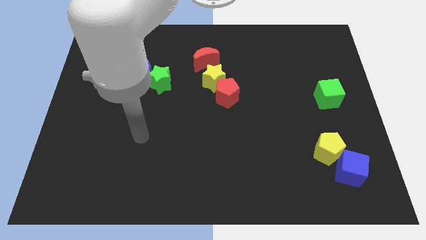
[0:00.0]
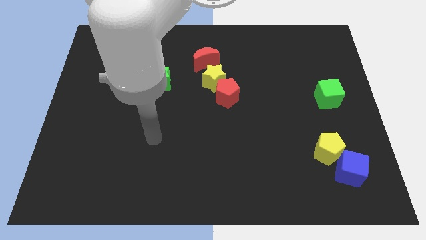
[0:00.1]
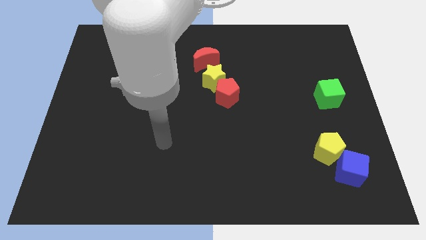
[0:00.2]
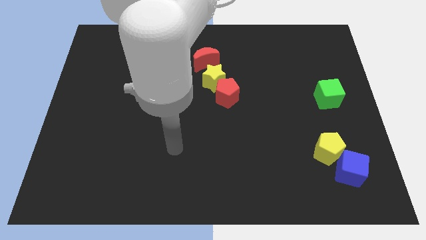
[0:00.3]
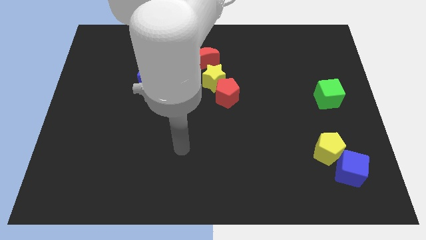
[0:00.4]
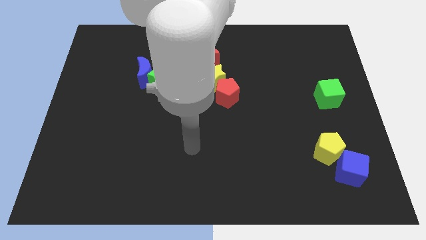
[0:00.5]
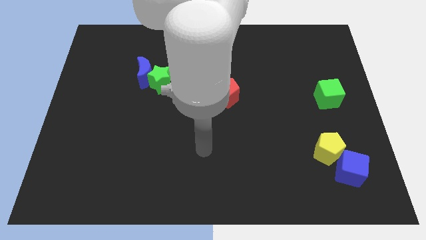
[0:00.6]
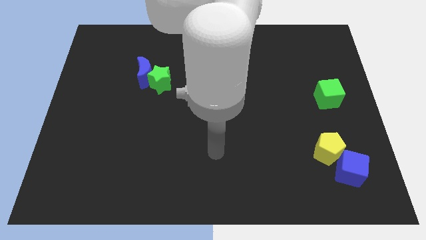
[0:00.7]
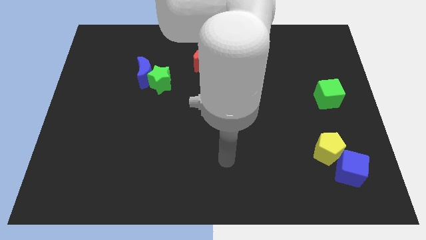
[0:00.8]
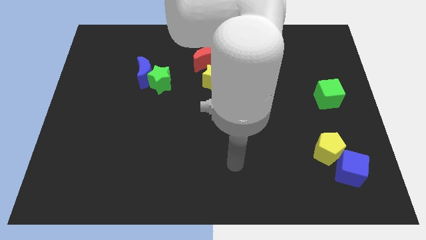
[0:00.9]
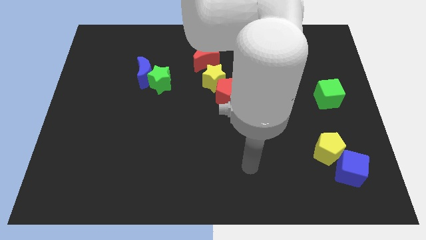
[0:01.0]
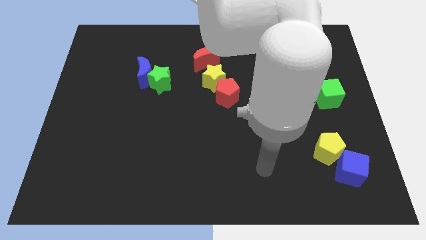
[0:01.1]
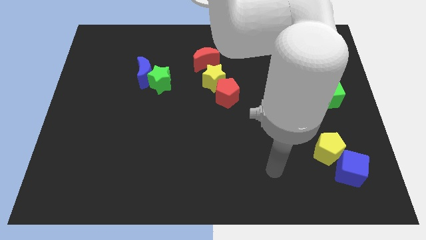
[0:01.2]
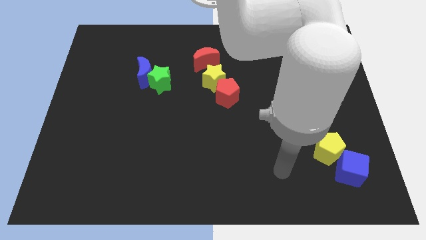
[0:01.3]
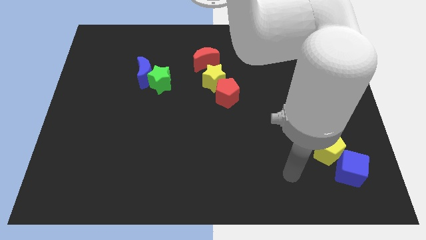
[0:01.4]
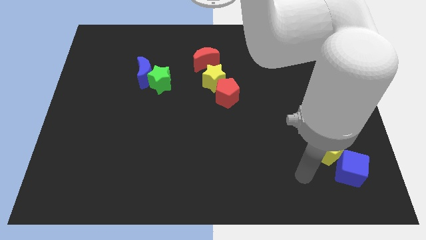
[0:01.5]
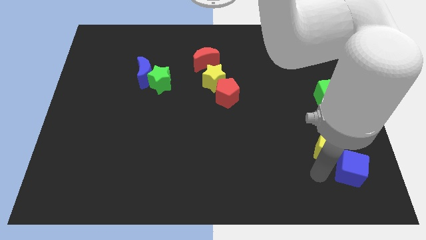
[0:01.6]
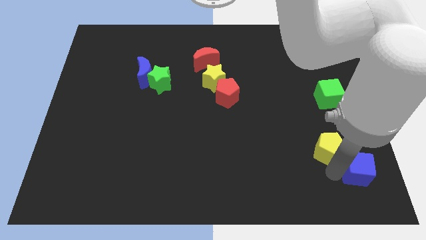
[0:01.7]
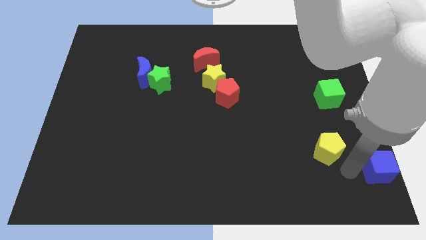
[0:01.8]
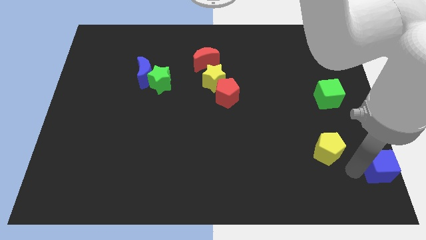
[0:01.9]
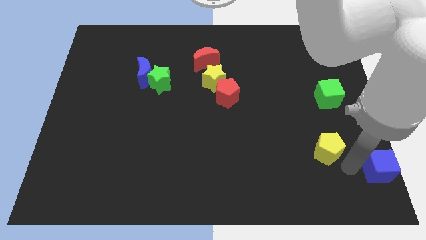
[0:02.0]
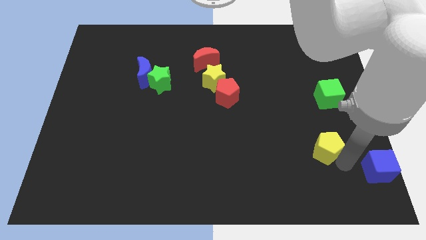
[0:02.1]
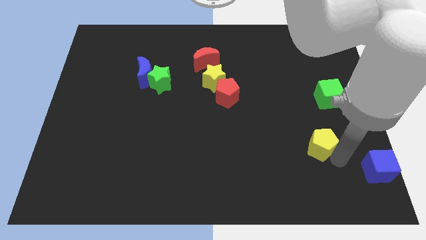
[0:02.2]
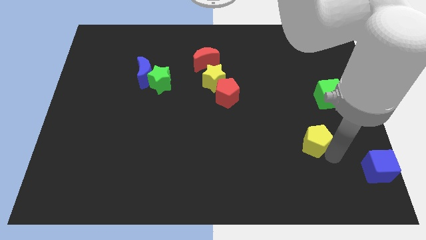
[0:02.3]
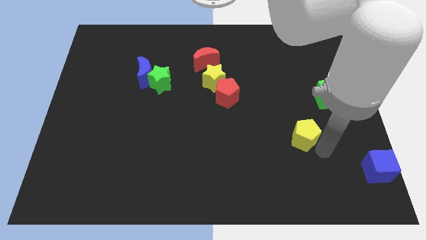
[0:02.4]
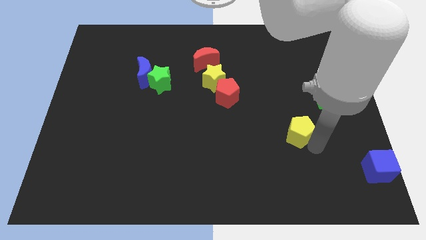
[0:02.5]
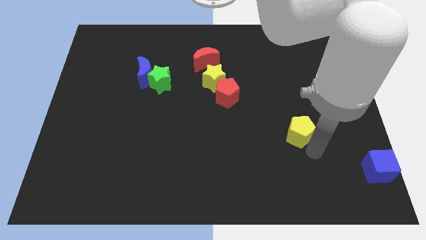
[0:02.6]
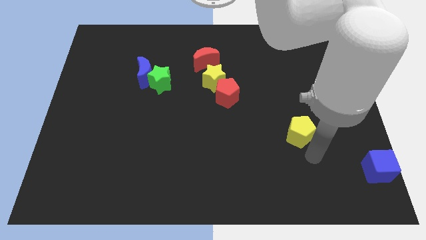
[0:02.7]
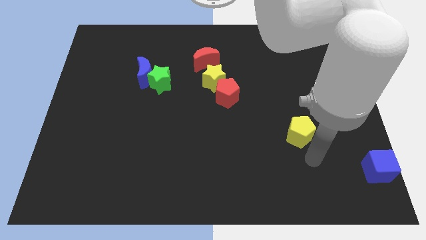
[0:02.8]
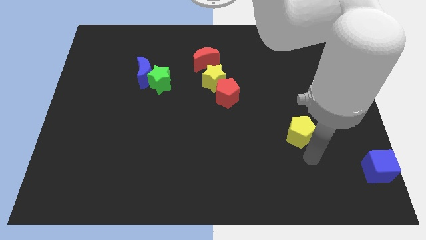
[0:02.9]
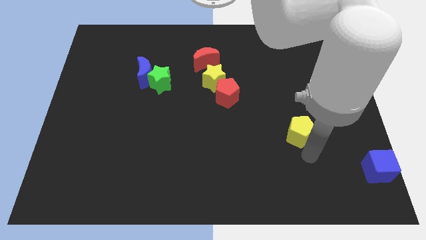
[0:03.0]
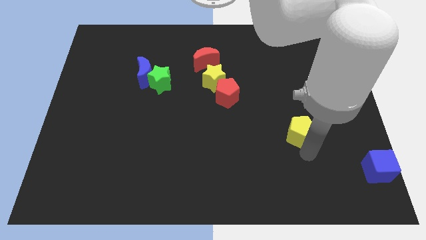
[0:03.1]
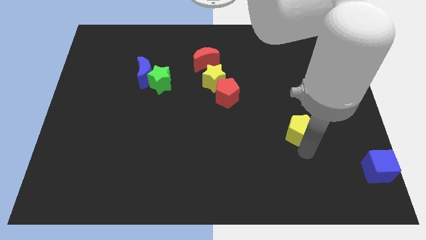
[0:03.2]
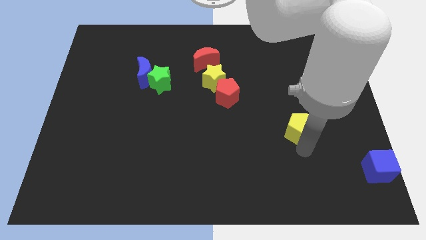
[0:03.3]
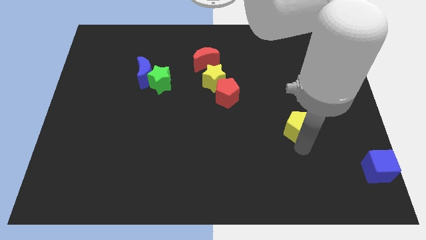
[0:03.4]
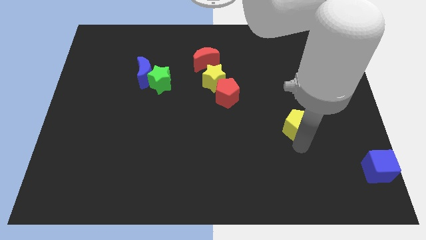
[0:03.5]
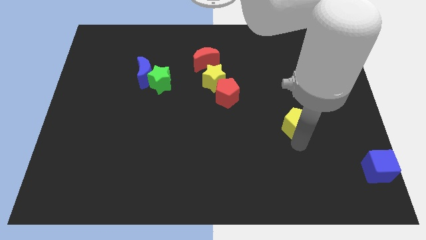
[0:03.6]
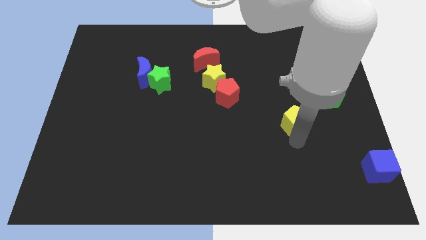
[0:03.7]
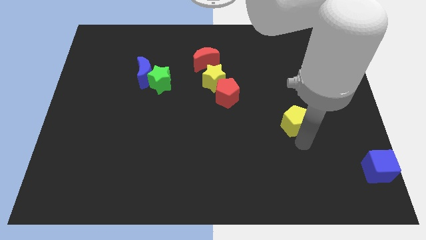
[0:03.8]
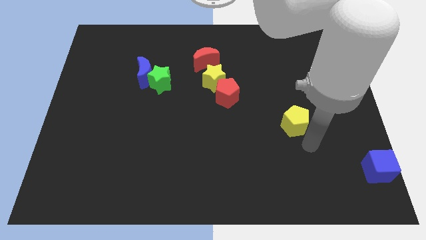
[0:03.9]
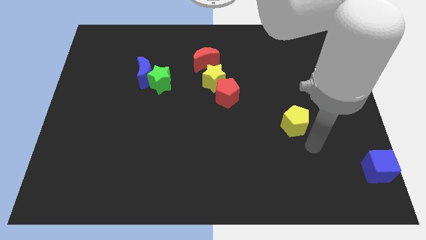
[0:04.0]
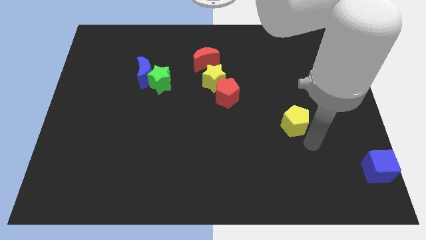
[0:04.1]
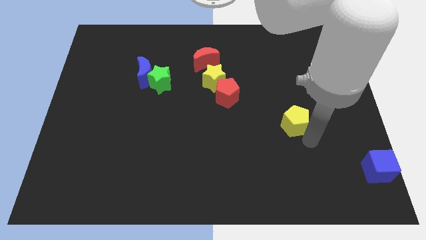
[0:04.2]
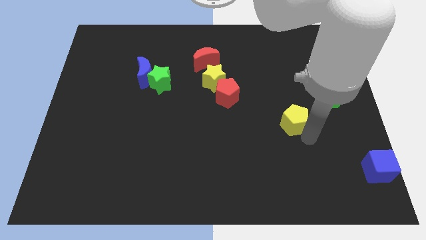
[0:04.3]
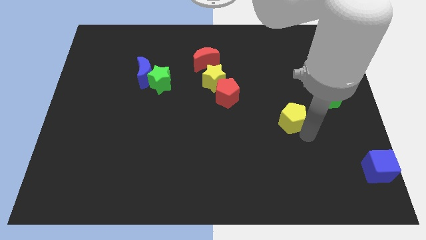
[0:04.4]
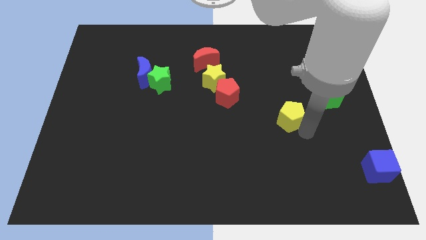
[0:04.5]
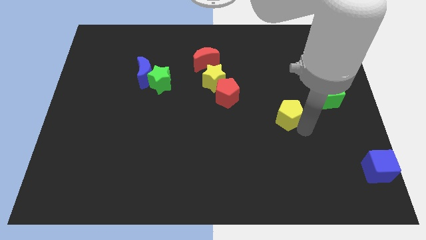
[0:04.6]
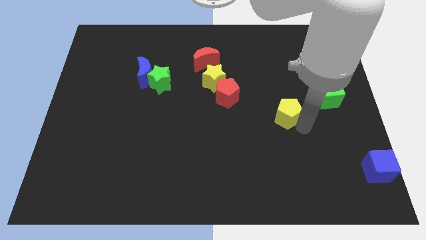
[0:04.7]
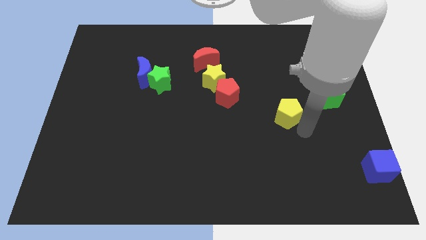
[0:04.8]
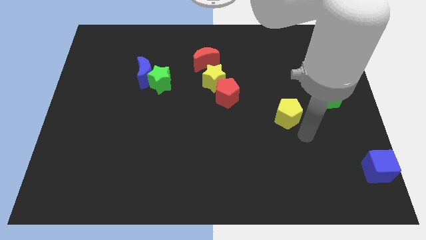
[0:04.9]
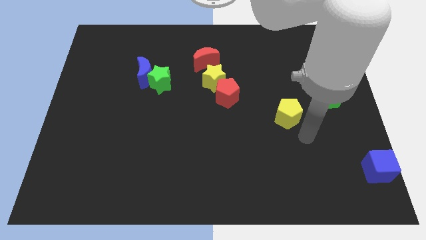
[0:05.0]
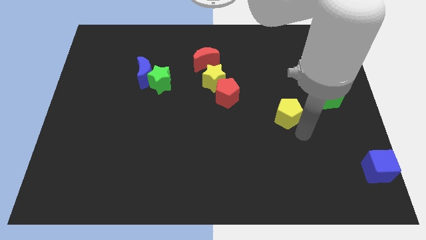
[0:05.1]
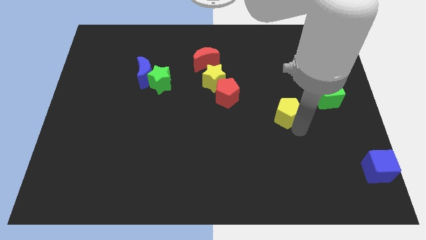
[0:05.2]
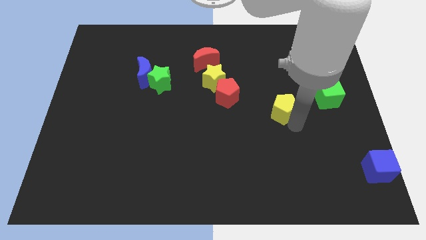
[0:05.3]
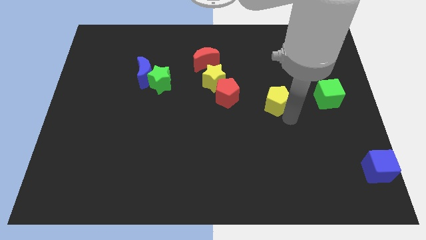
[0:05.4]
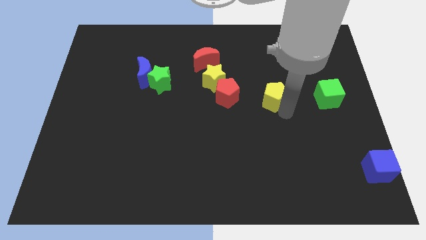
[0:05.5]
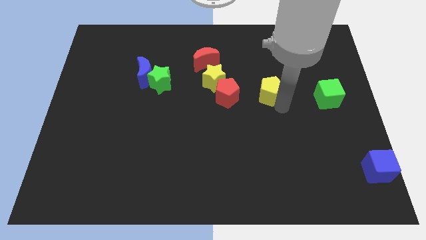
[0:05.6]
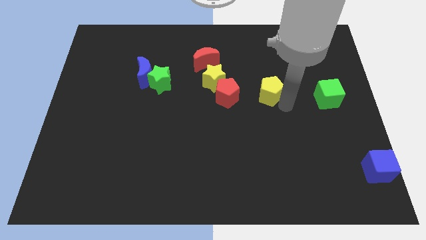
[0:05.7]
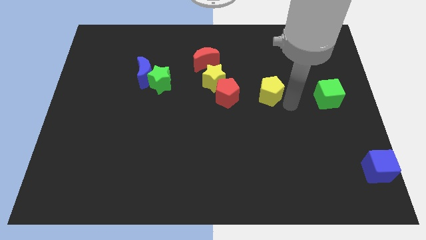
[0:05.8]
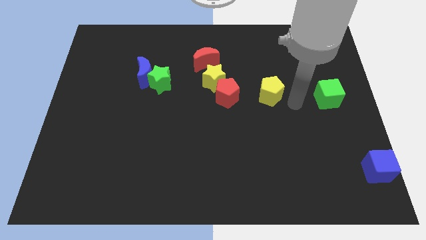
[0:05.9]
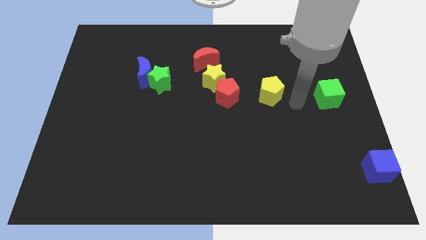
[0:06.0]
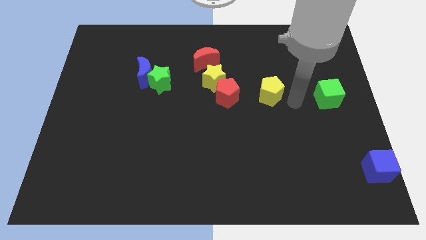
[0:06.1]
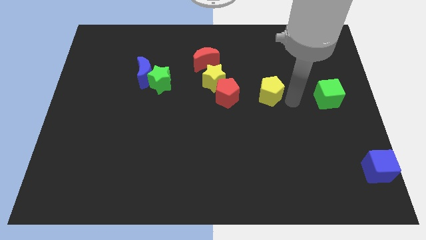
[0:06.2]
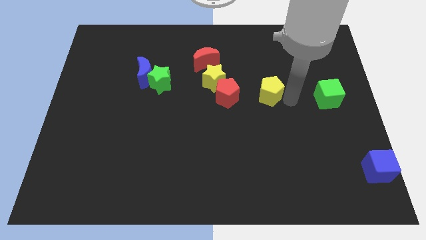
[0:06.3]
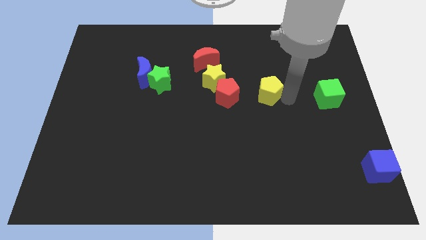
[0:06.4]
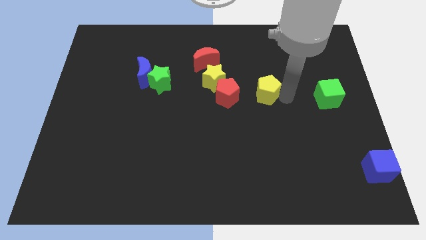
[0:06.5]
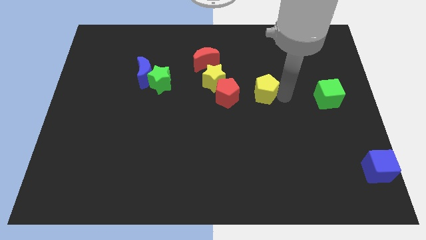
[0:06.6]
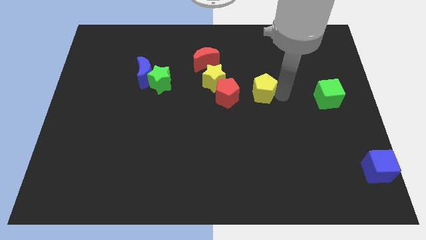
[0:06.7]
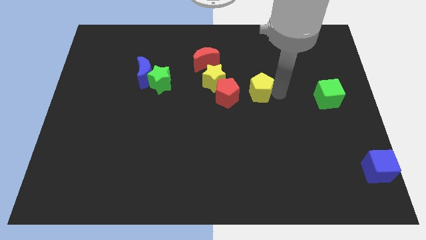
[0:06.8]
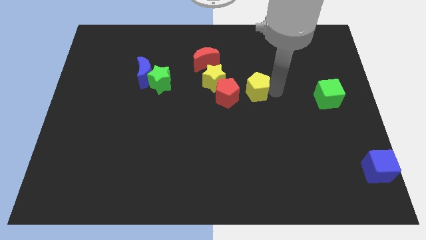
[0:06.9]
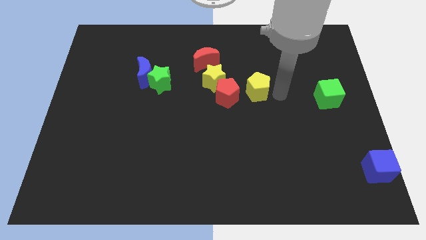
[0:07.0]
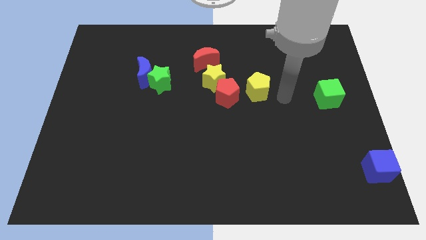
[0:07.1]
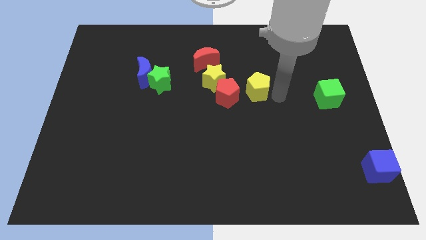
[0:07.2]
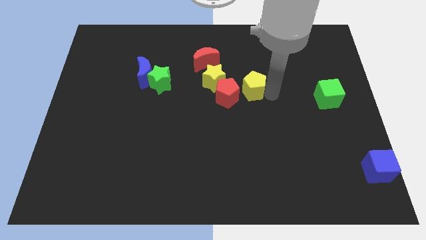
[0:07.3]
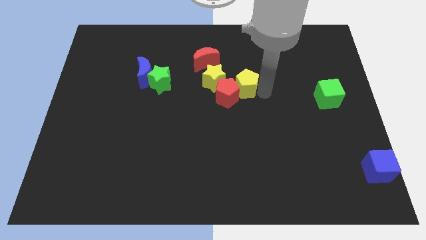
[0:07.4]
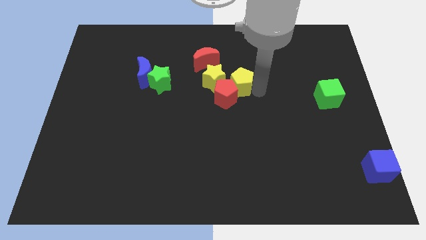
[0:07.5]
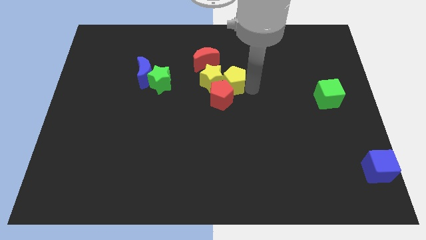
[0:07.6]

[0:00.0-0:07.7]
put the yellow pentagon next to the yellow star
